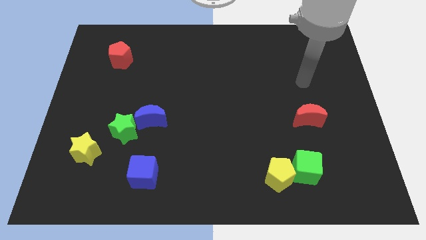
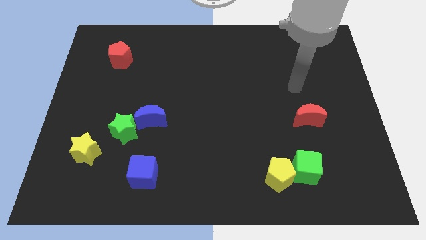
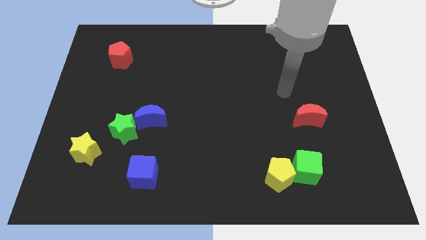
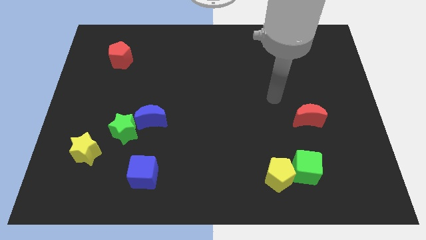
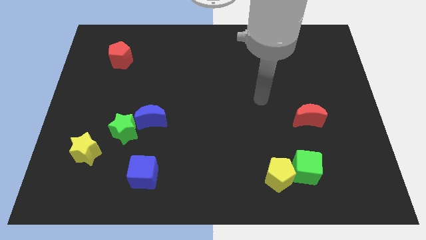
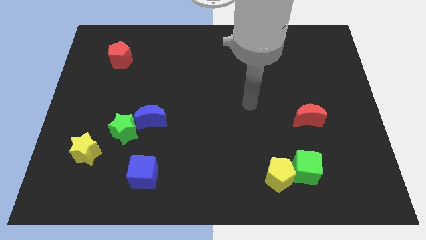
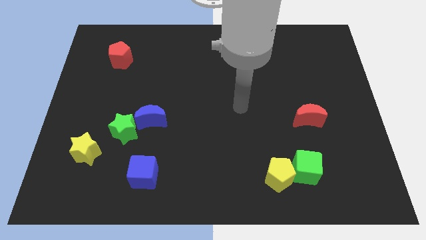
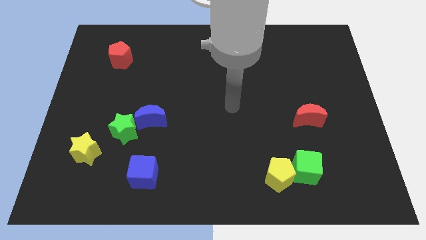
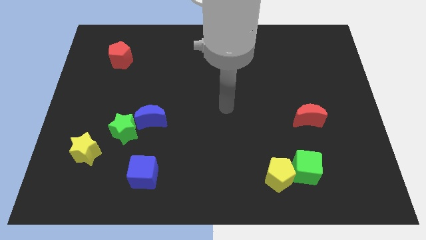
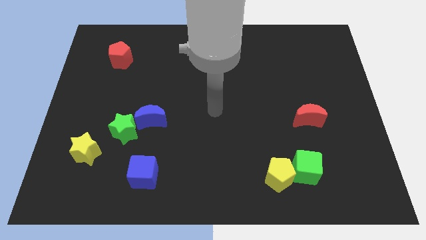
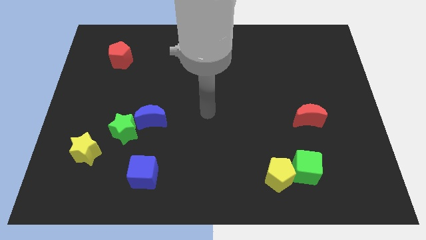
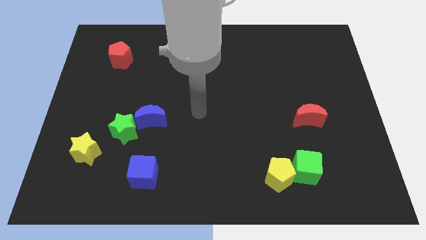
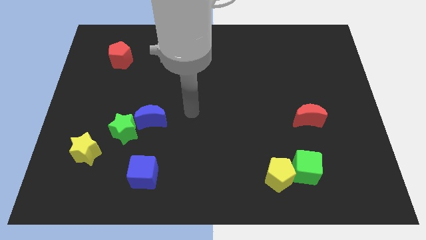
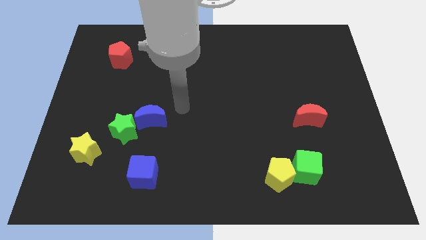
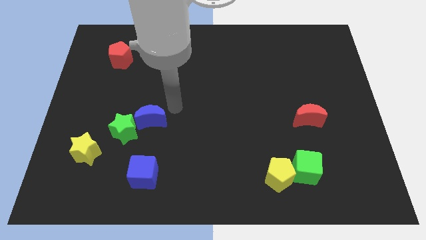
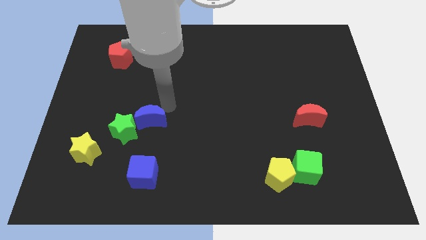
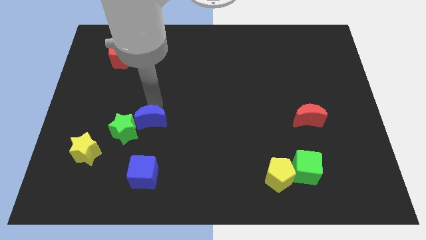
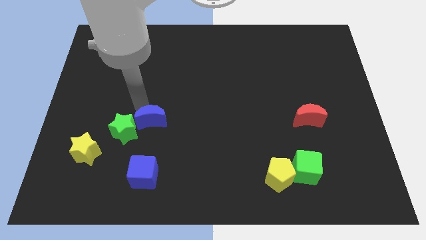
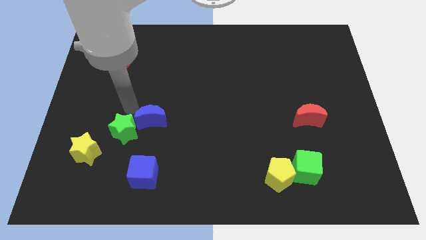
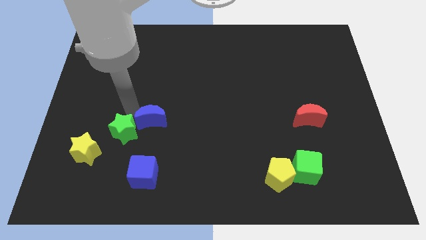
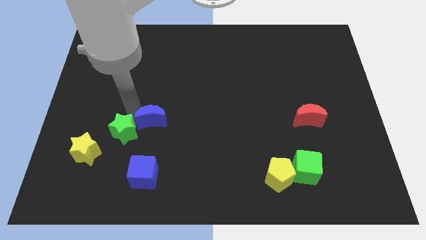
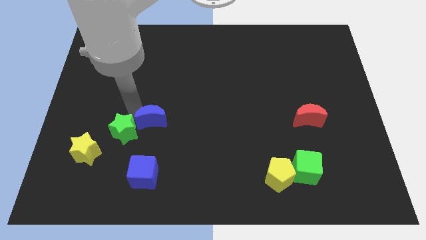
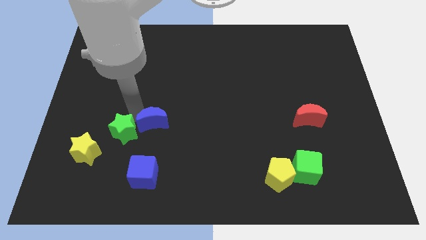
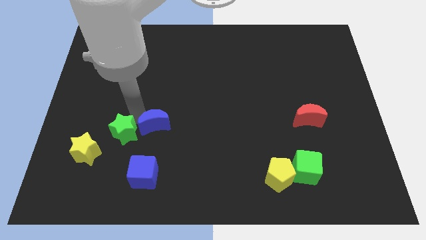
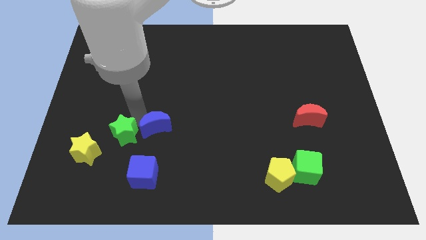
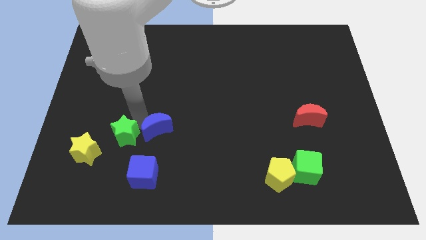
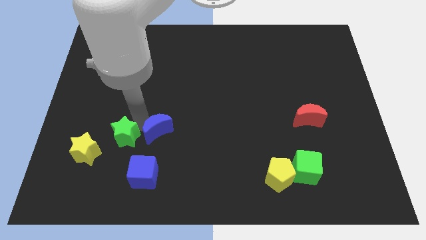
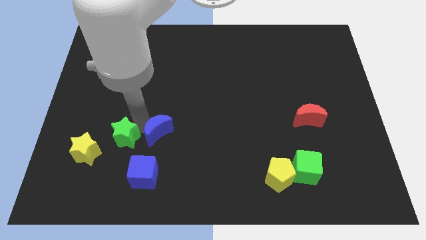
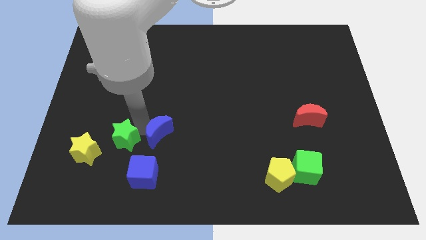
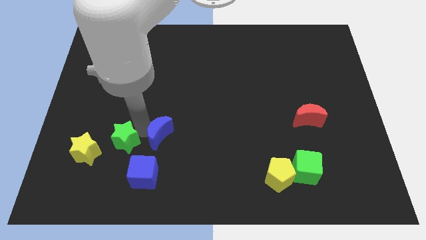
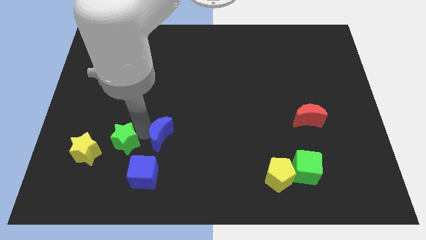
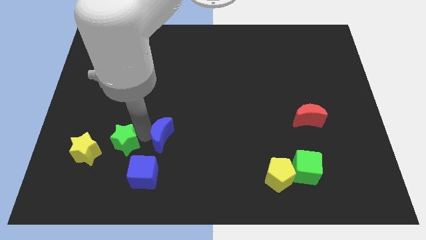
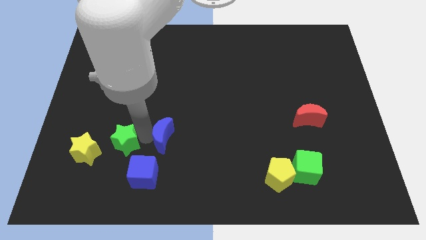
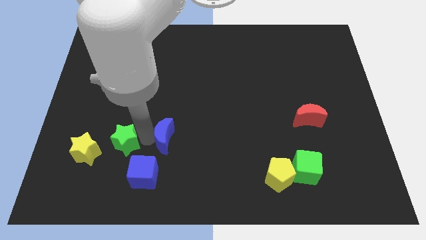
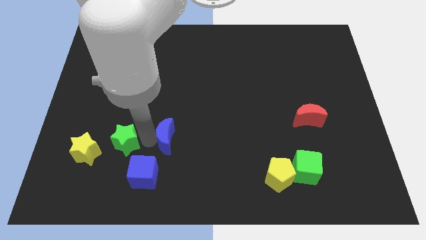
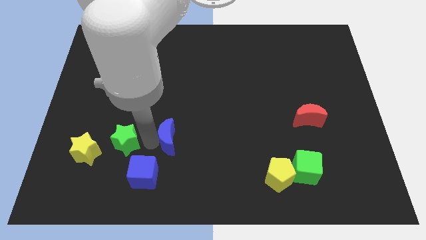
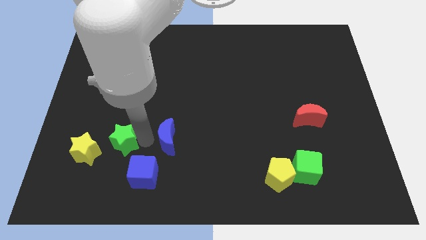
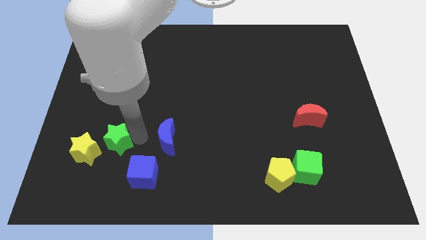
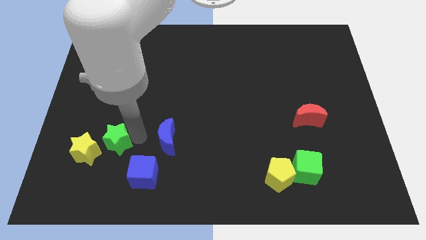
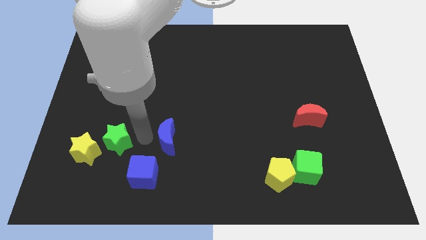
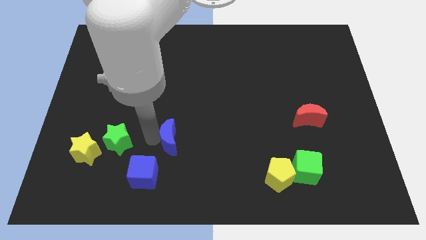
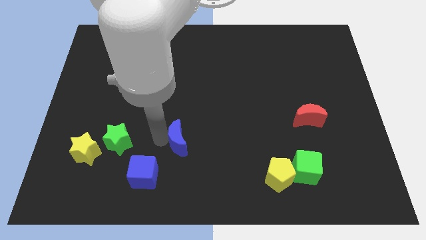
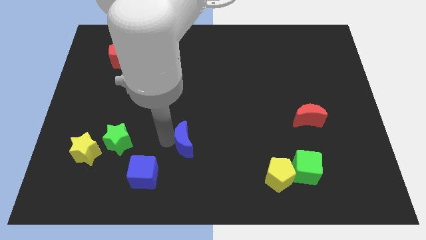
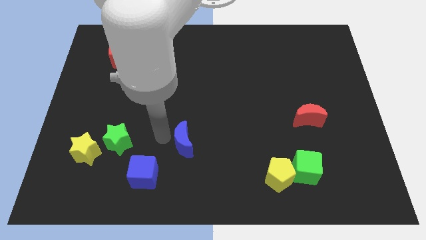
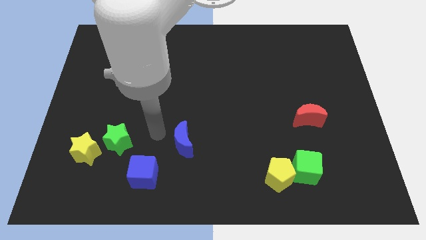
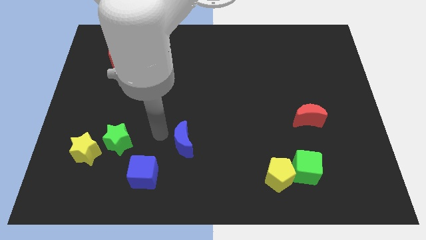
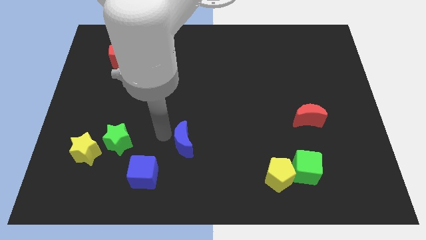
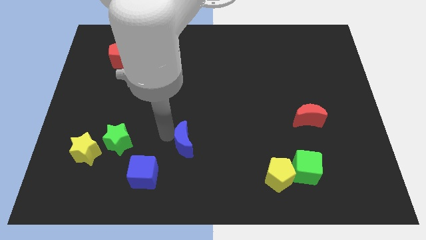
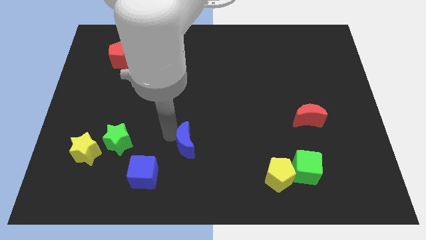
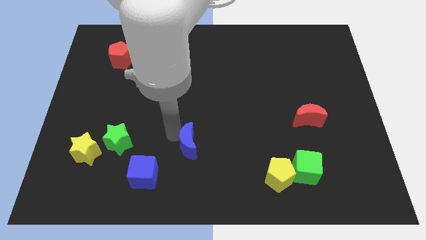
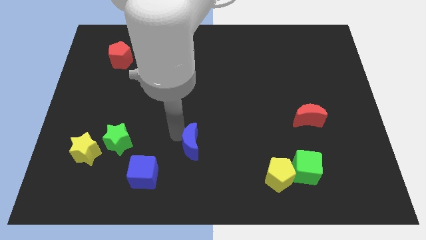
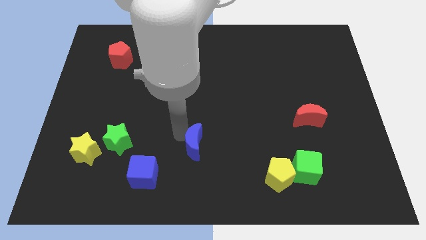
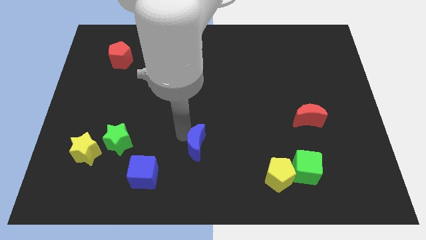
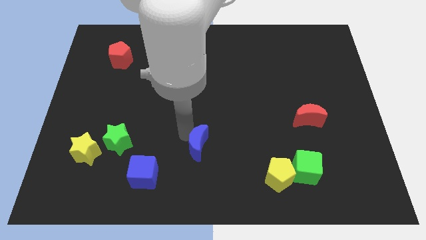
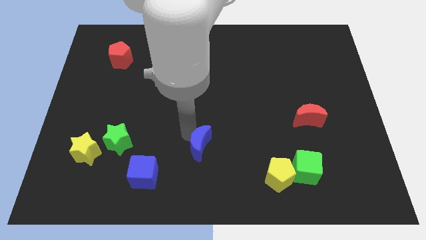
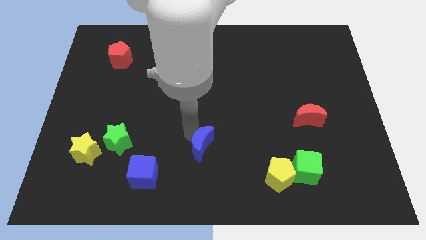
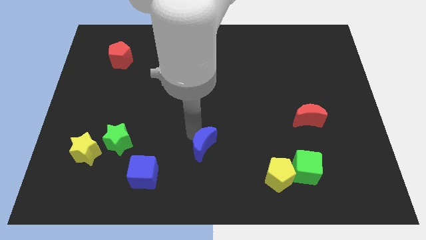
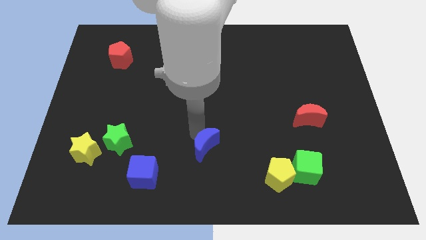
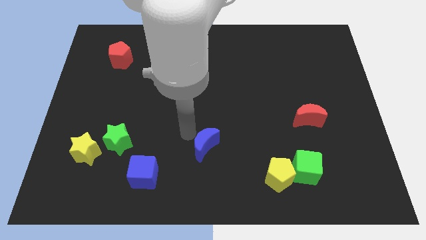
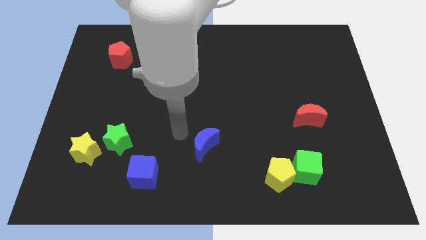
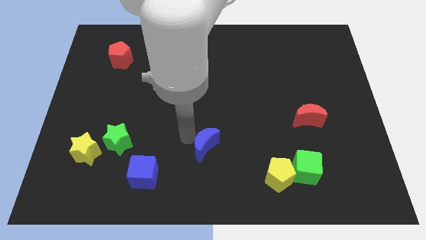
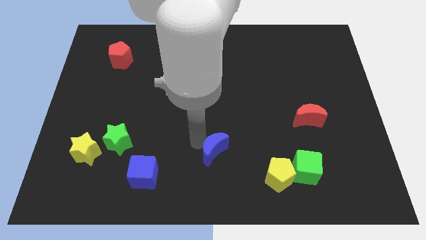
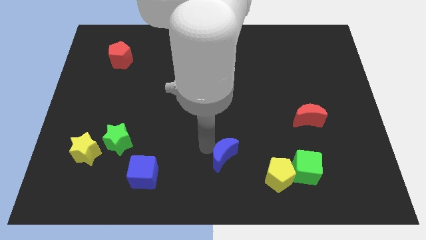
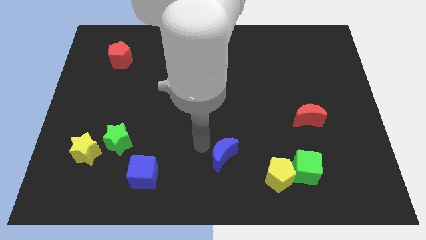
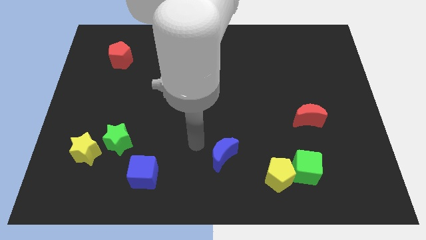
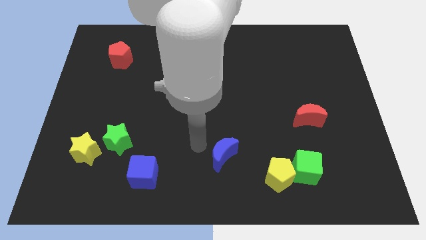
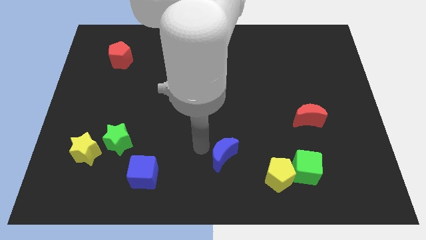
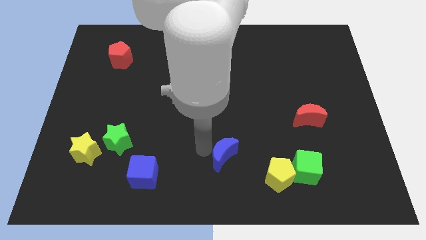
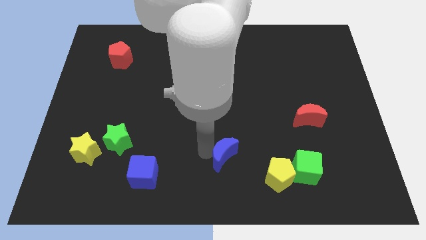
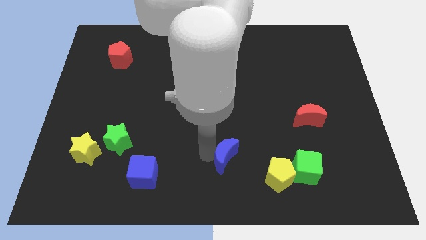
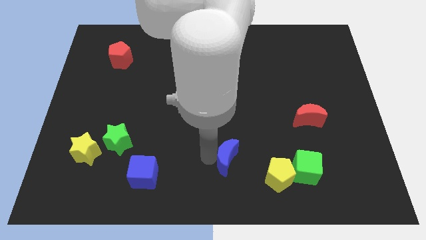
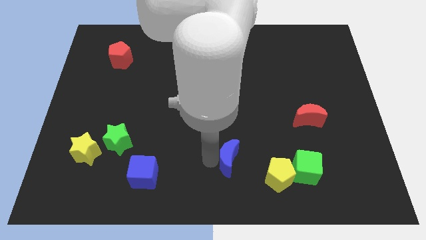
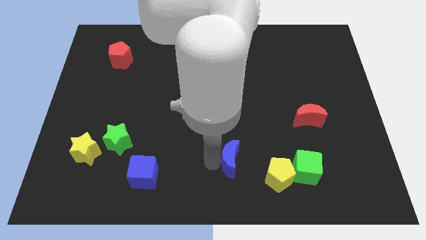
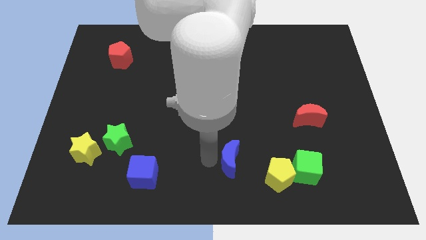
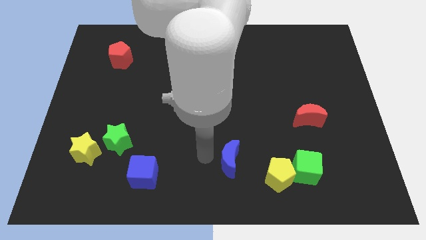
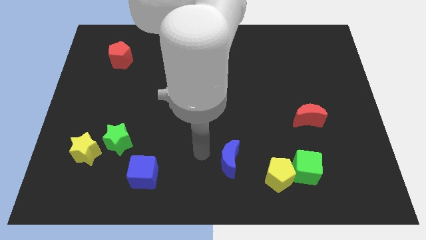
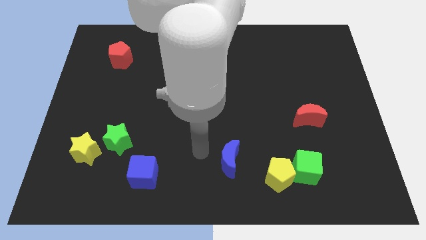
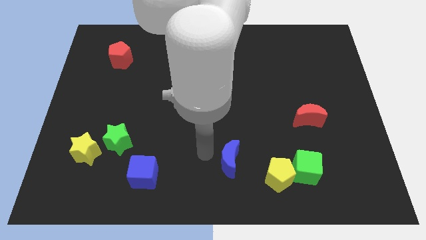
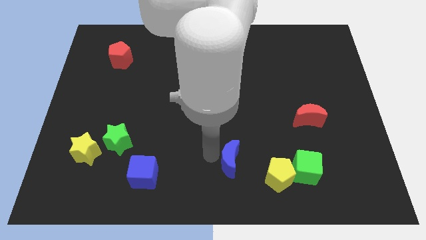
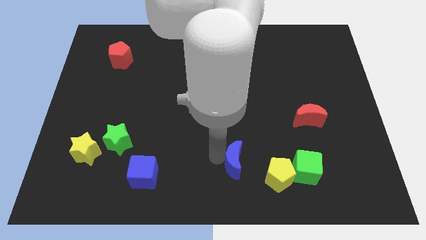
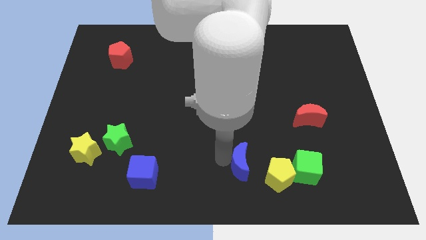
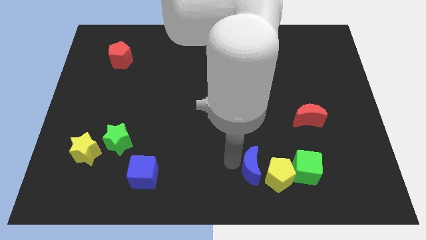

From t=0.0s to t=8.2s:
move the blue moon next to the yellow pentagon
